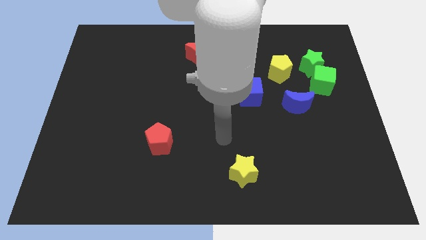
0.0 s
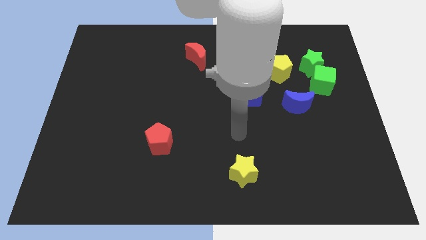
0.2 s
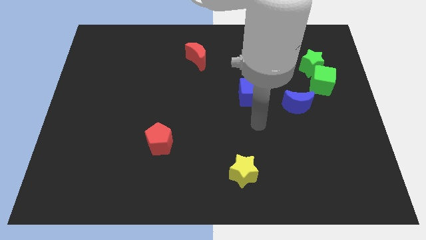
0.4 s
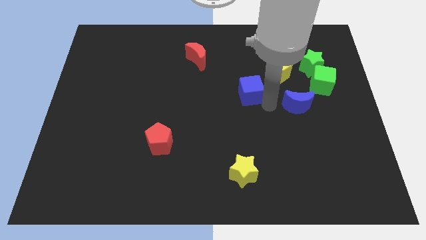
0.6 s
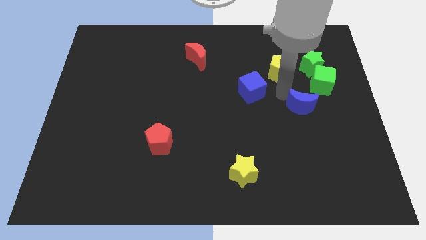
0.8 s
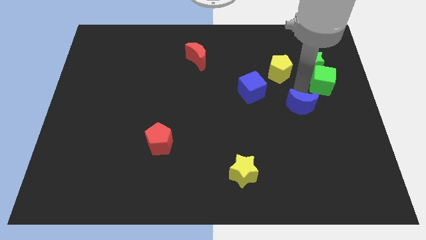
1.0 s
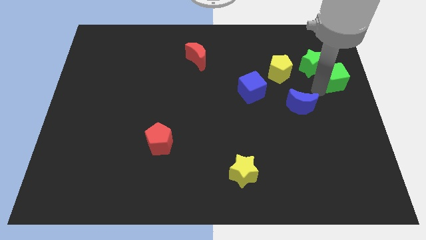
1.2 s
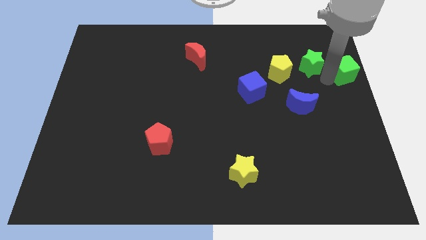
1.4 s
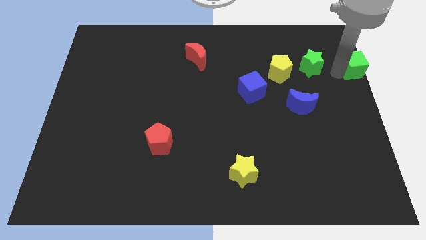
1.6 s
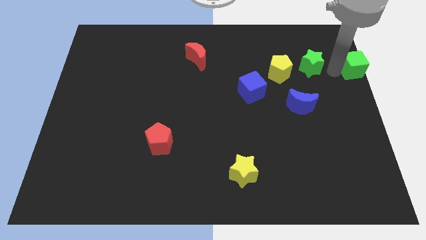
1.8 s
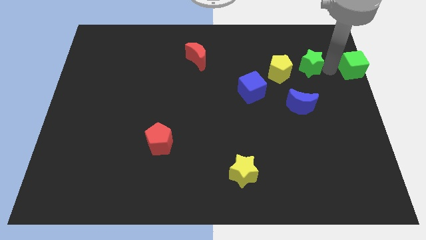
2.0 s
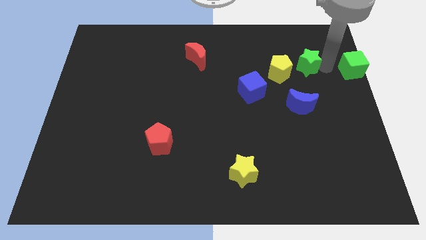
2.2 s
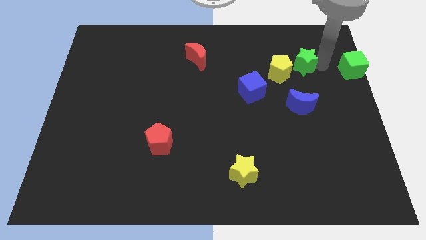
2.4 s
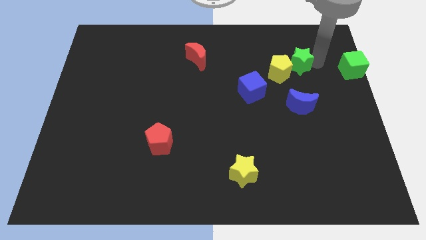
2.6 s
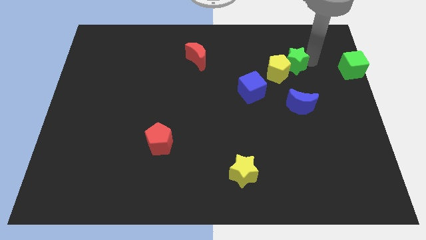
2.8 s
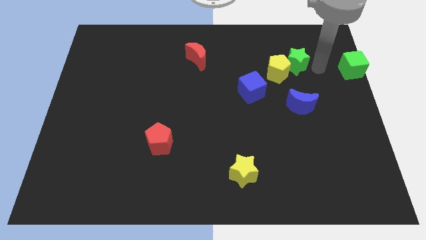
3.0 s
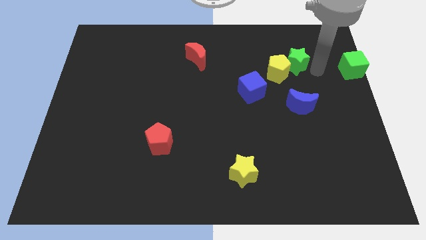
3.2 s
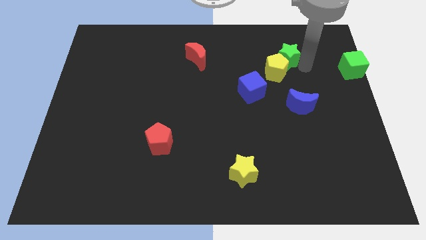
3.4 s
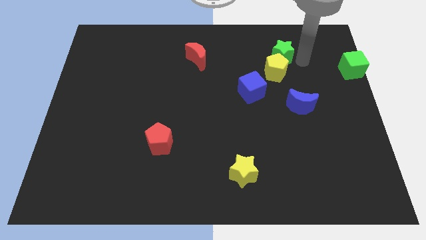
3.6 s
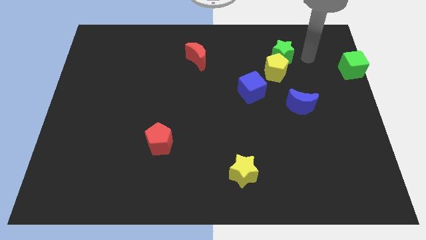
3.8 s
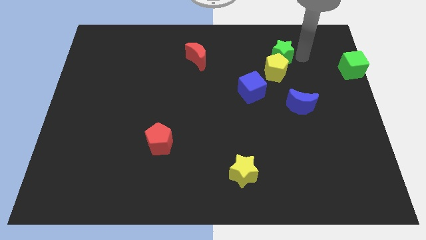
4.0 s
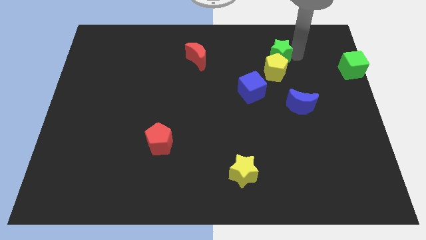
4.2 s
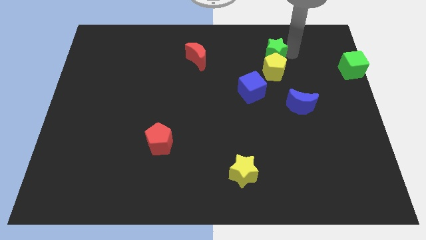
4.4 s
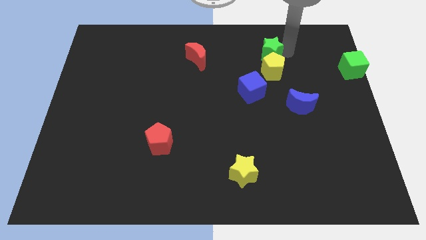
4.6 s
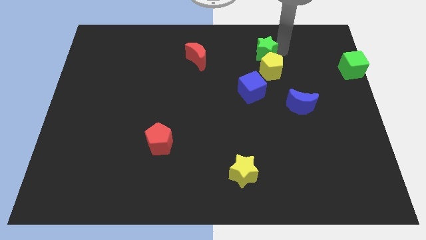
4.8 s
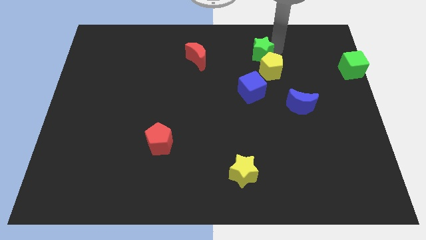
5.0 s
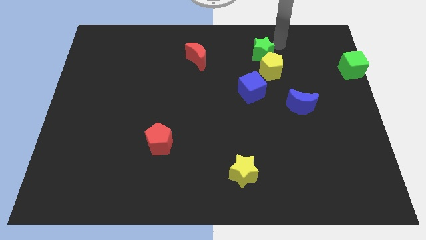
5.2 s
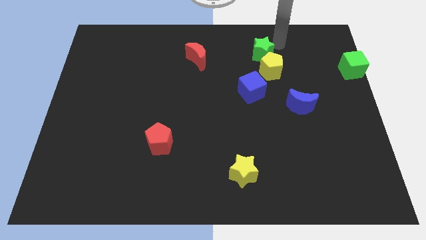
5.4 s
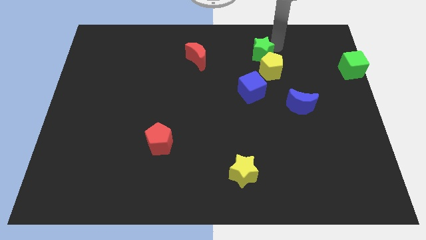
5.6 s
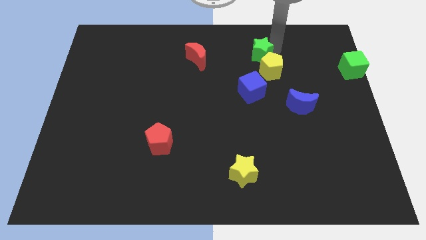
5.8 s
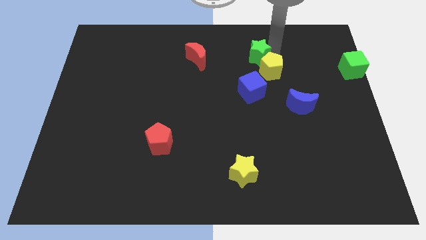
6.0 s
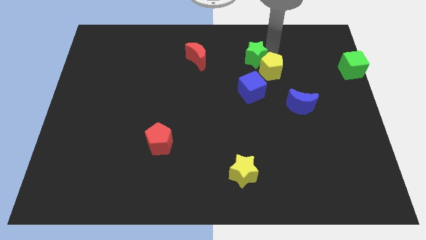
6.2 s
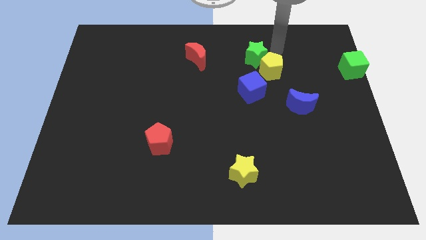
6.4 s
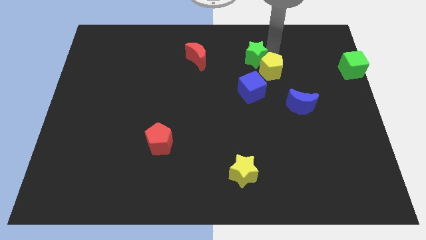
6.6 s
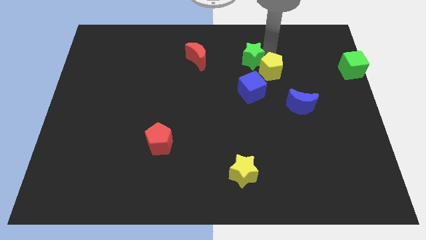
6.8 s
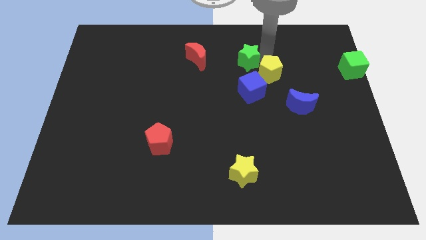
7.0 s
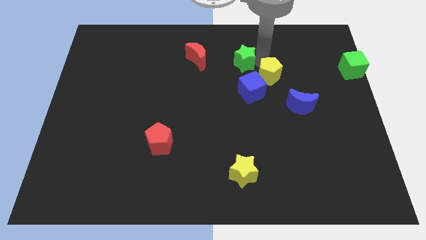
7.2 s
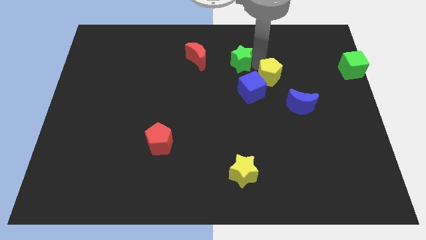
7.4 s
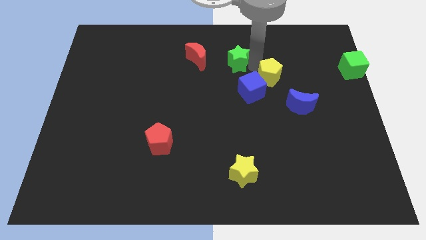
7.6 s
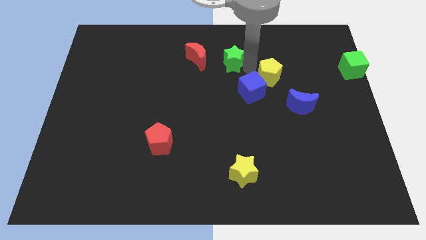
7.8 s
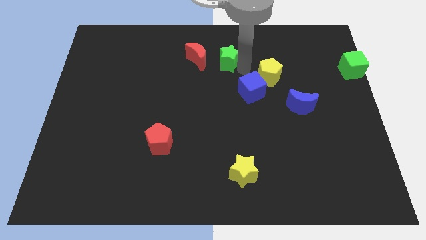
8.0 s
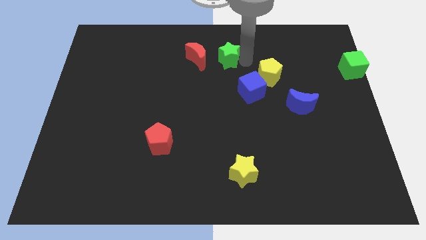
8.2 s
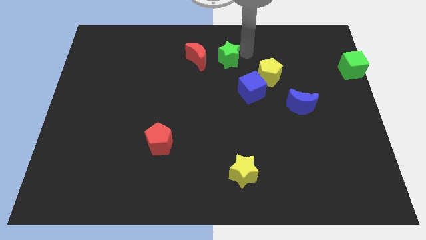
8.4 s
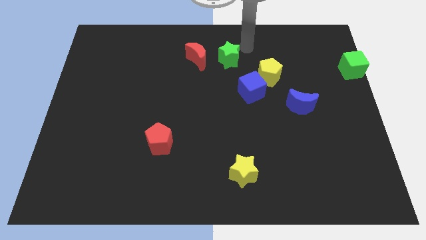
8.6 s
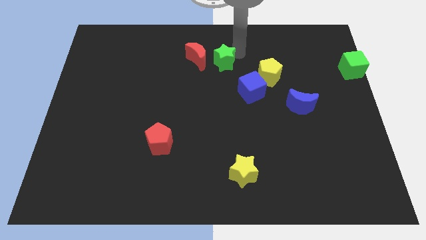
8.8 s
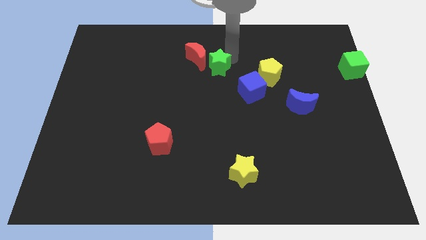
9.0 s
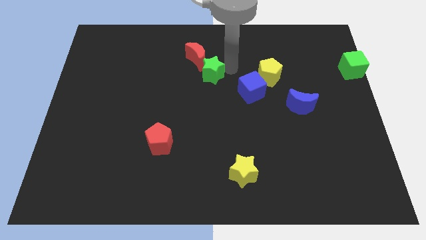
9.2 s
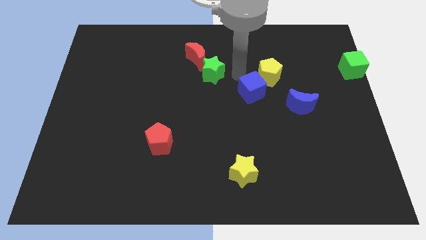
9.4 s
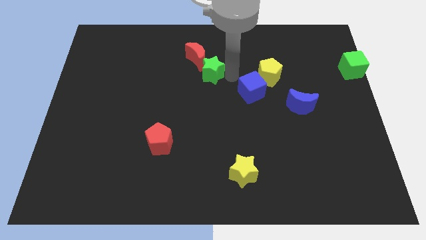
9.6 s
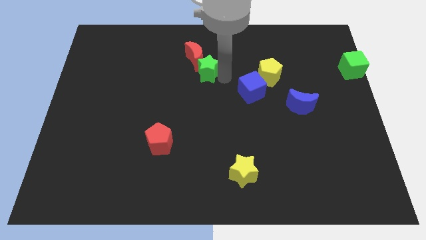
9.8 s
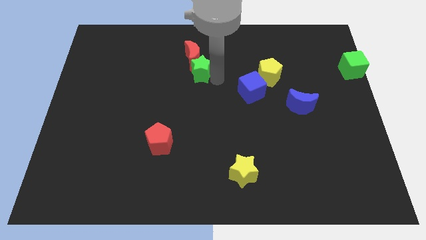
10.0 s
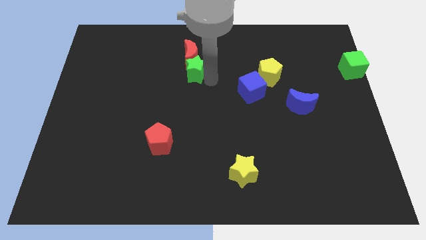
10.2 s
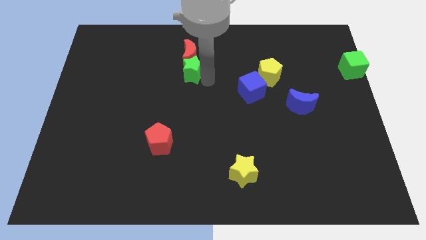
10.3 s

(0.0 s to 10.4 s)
push the green star diagonally down and to the left of the red moon

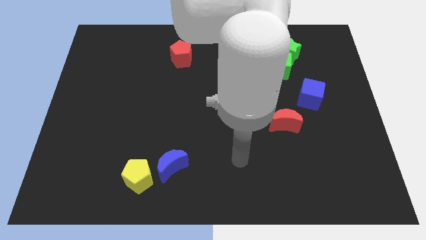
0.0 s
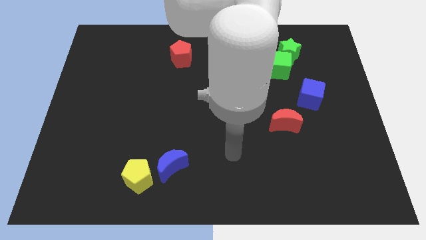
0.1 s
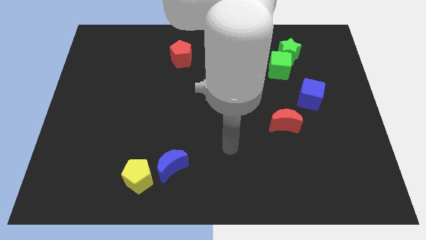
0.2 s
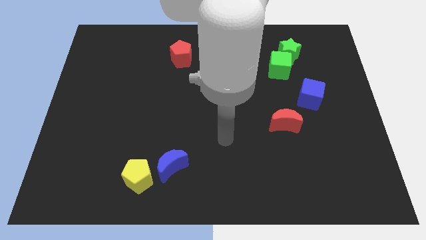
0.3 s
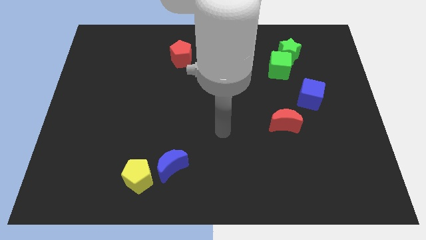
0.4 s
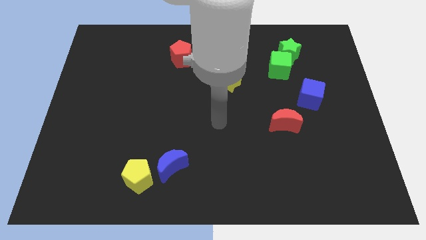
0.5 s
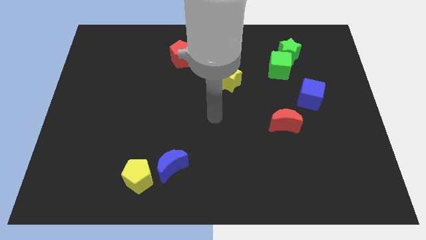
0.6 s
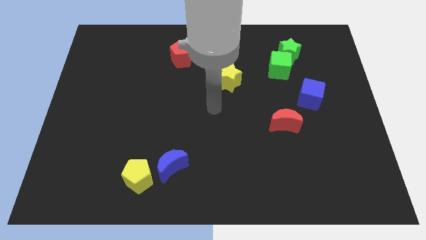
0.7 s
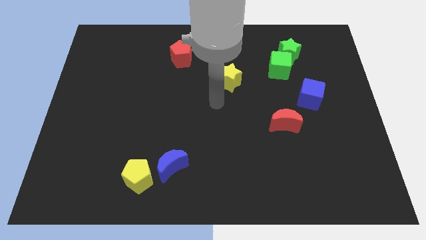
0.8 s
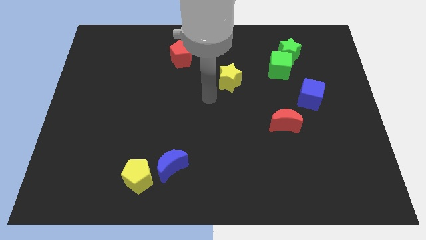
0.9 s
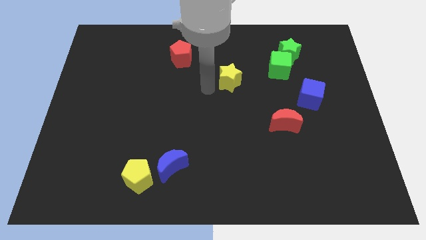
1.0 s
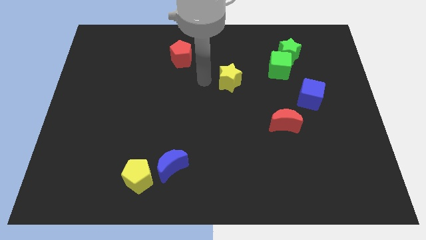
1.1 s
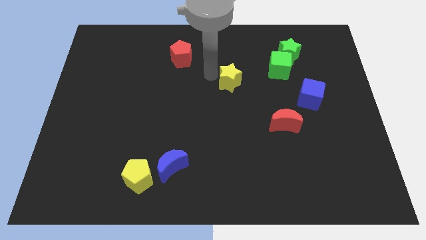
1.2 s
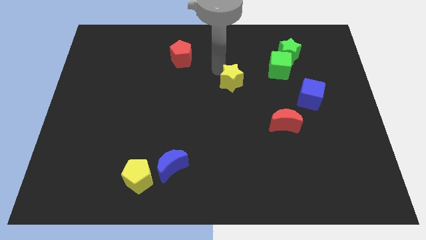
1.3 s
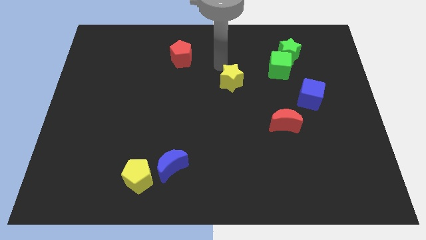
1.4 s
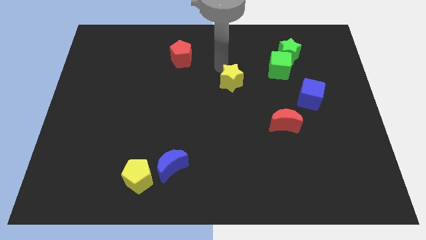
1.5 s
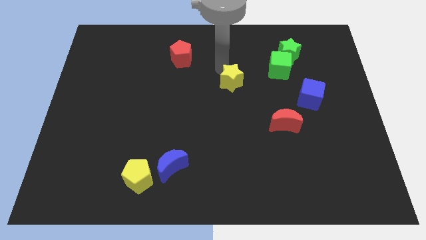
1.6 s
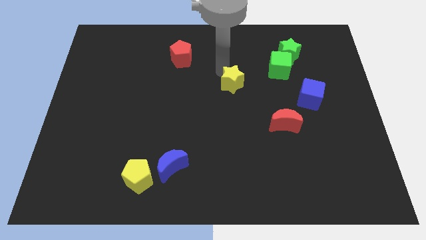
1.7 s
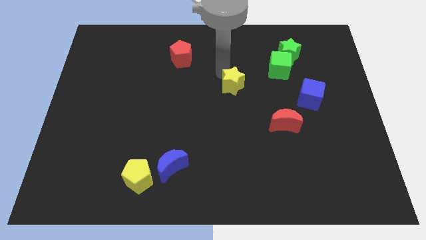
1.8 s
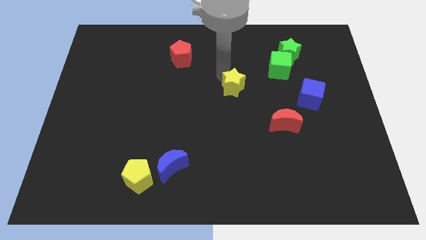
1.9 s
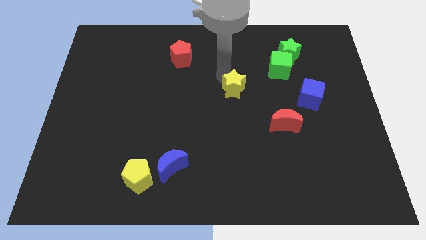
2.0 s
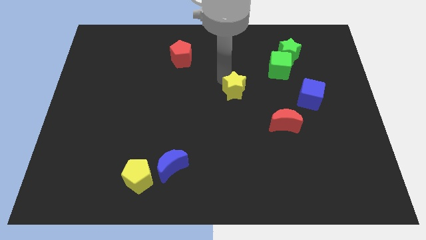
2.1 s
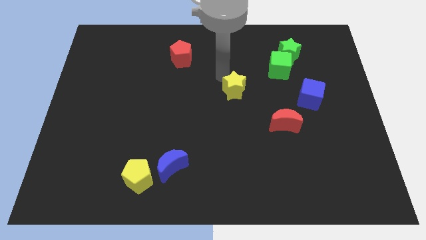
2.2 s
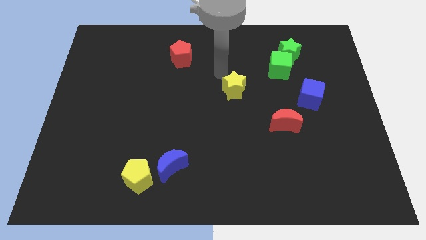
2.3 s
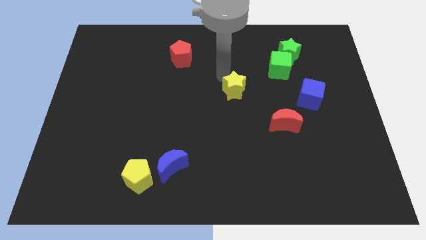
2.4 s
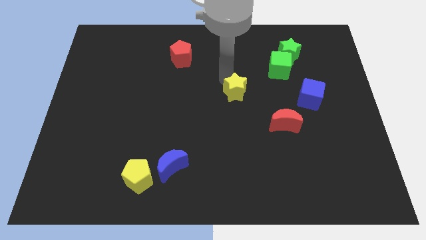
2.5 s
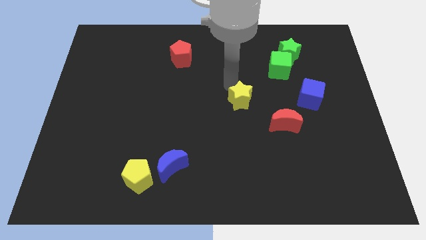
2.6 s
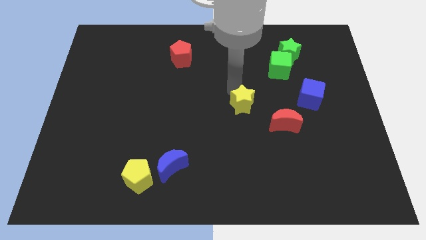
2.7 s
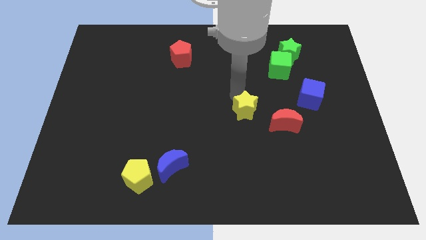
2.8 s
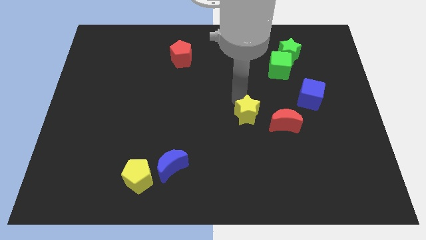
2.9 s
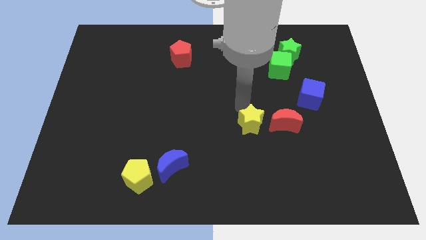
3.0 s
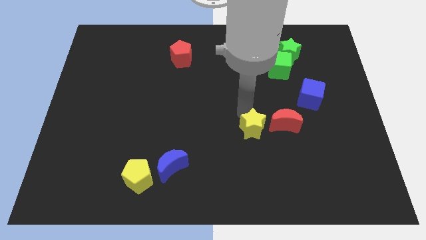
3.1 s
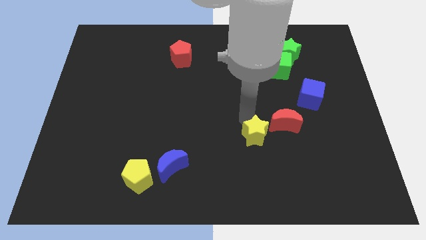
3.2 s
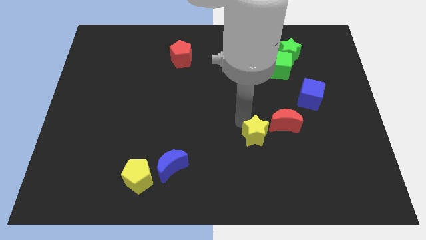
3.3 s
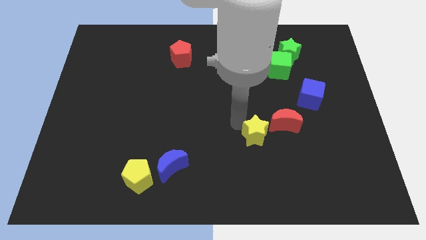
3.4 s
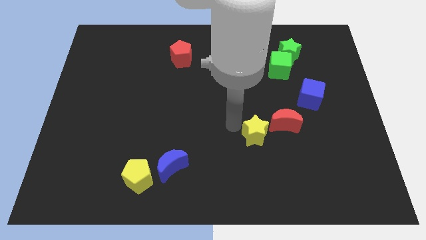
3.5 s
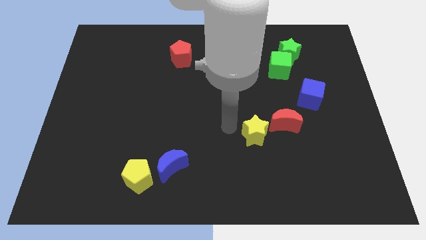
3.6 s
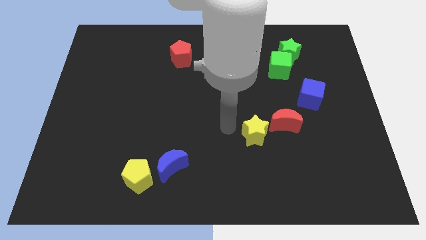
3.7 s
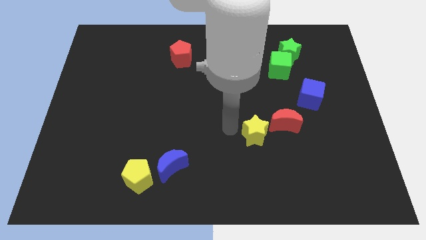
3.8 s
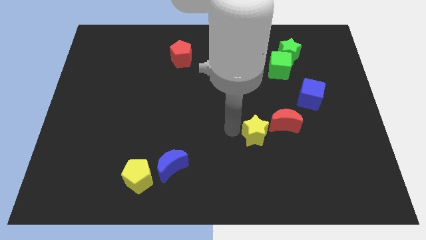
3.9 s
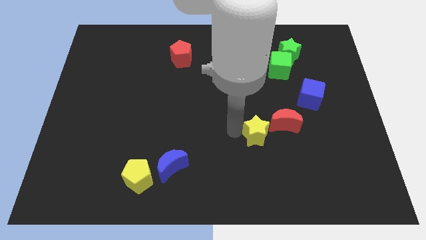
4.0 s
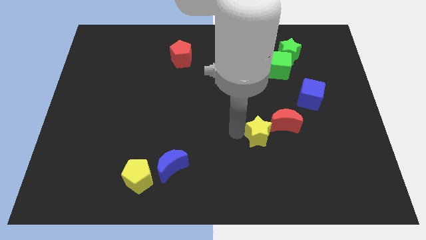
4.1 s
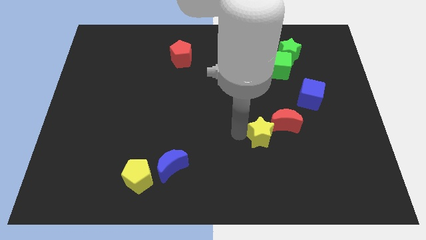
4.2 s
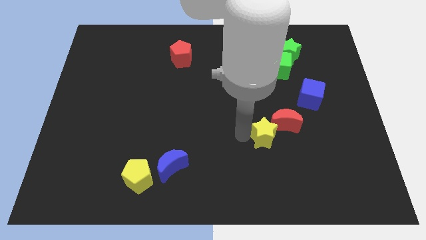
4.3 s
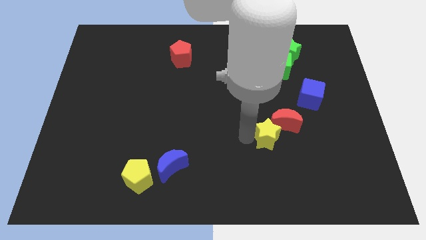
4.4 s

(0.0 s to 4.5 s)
move the yellow star to the bottom of the red moon
